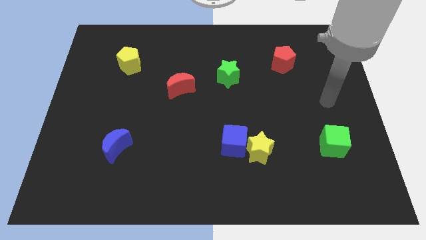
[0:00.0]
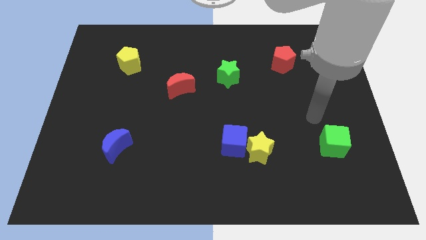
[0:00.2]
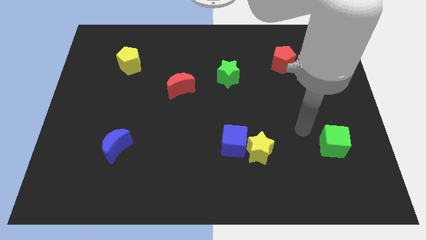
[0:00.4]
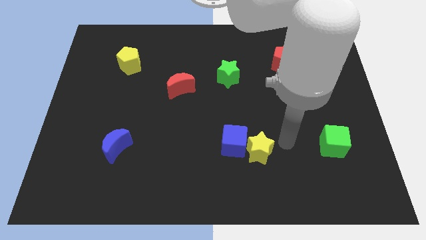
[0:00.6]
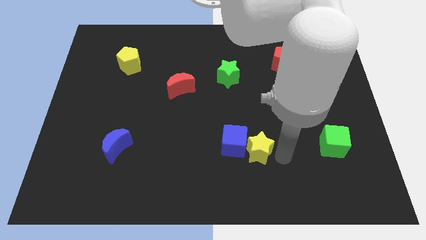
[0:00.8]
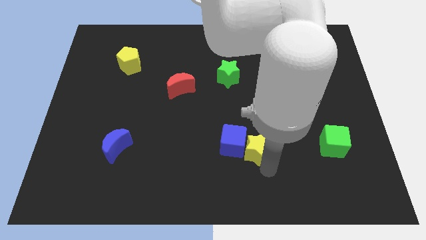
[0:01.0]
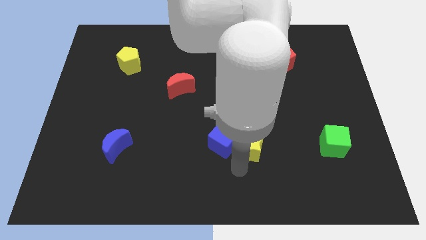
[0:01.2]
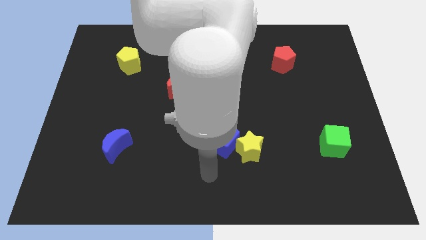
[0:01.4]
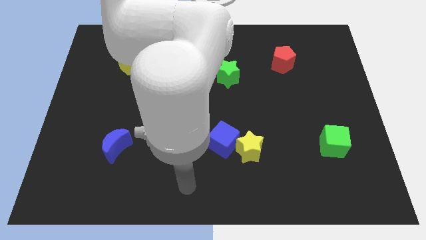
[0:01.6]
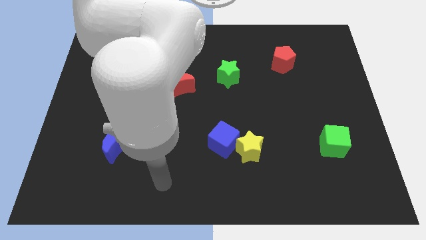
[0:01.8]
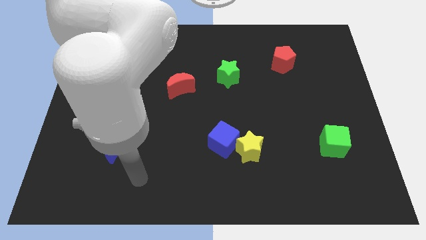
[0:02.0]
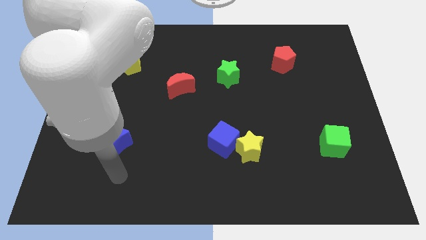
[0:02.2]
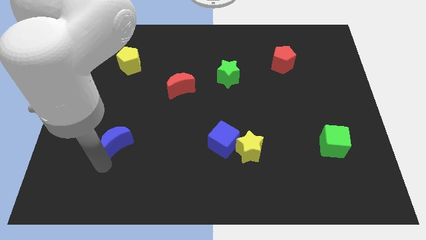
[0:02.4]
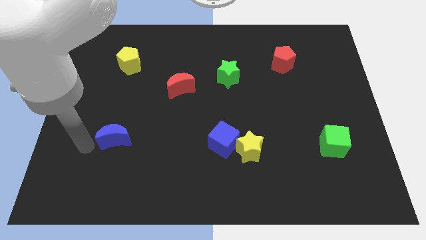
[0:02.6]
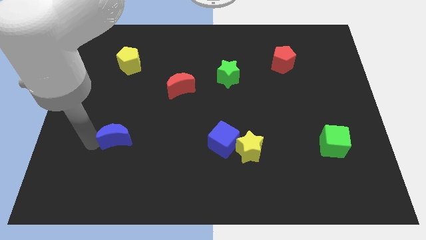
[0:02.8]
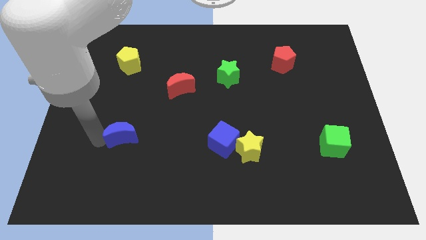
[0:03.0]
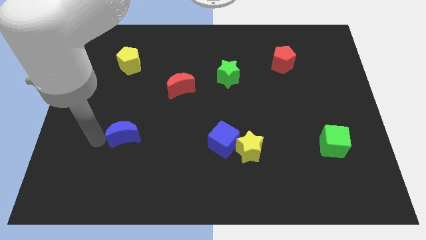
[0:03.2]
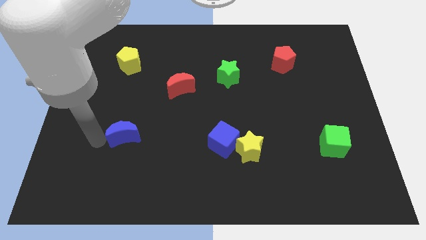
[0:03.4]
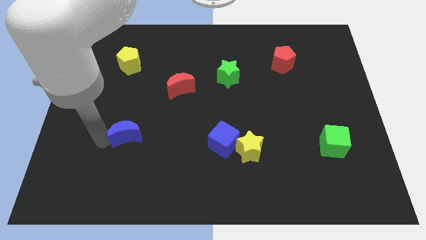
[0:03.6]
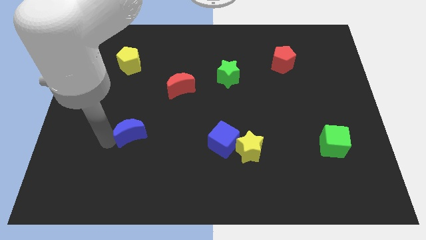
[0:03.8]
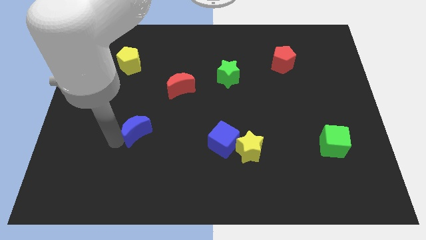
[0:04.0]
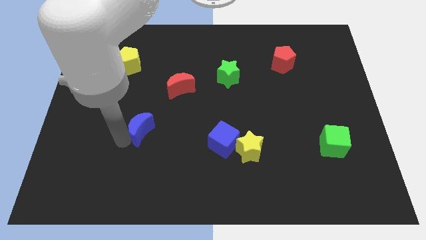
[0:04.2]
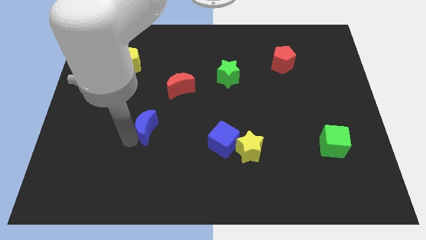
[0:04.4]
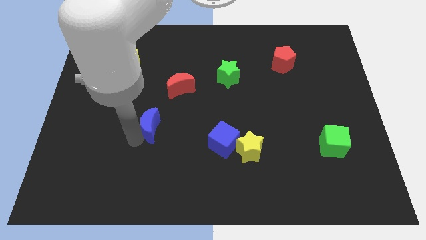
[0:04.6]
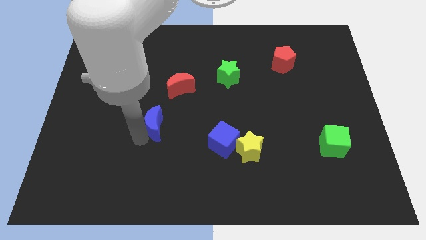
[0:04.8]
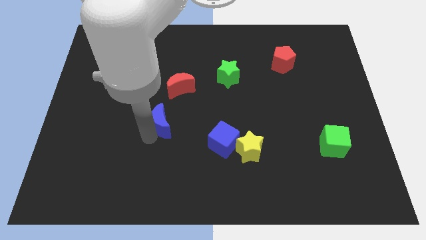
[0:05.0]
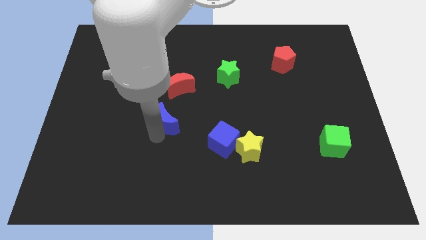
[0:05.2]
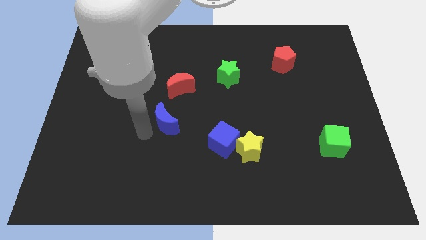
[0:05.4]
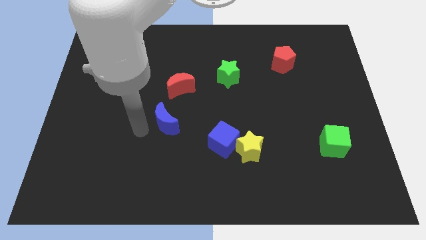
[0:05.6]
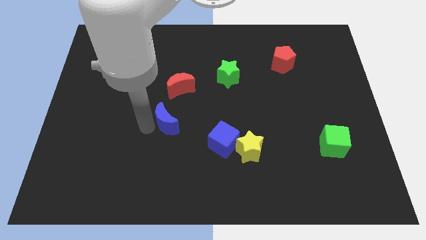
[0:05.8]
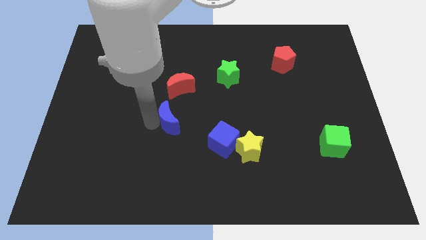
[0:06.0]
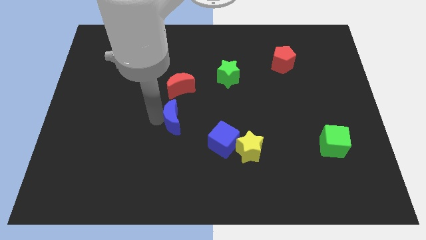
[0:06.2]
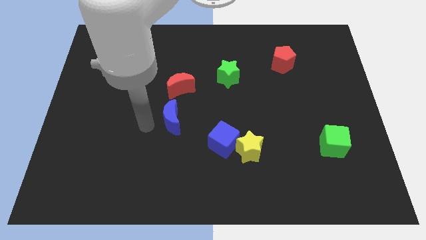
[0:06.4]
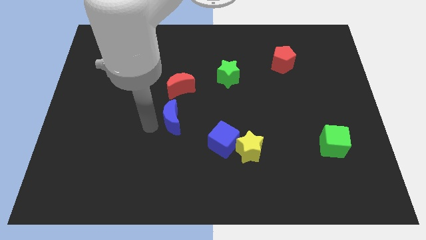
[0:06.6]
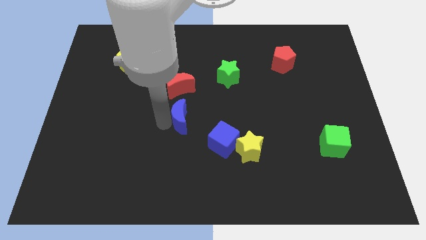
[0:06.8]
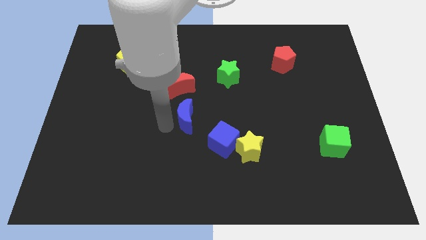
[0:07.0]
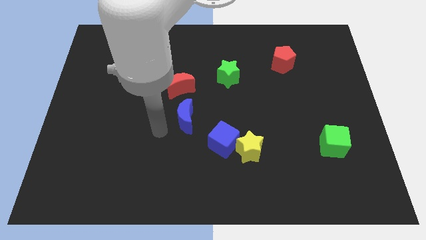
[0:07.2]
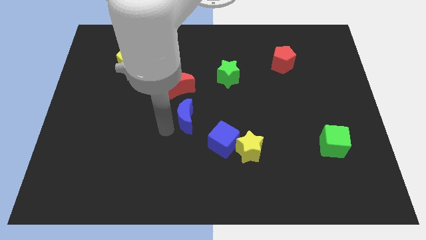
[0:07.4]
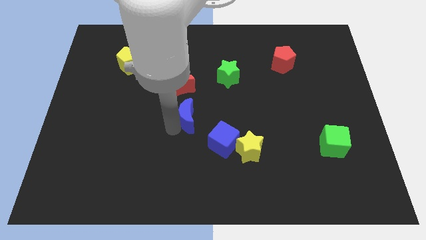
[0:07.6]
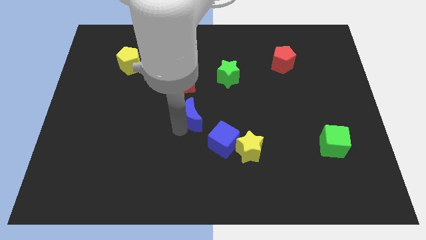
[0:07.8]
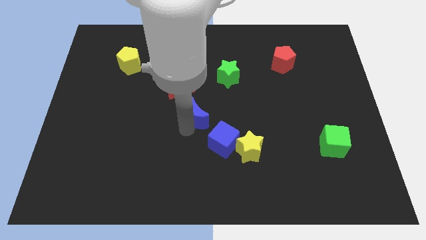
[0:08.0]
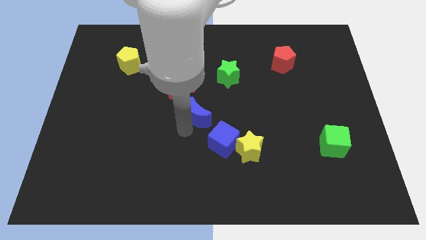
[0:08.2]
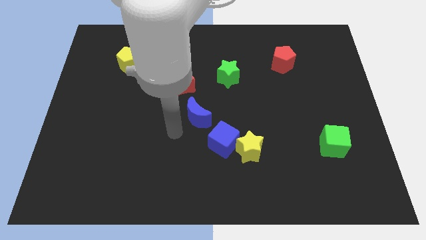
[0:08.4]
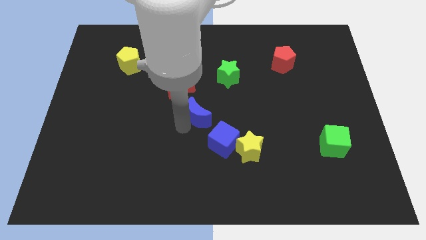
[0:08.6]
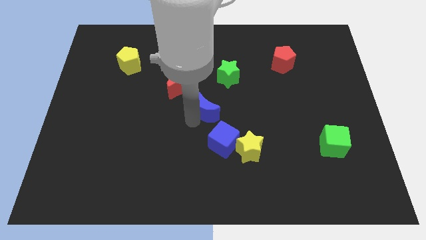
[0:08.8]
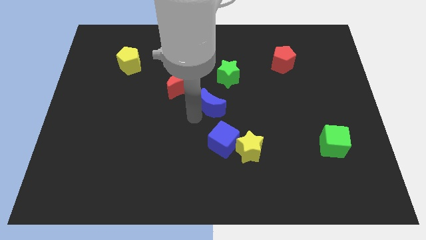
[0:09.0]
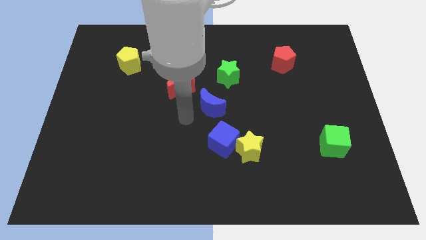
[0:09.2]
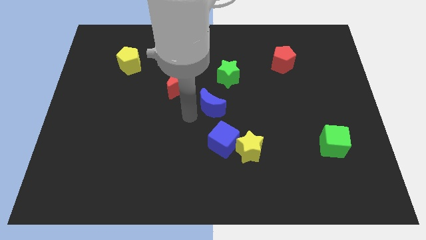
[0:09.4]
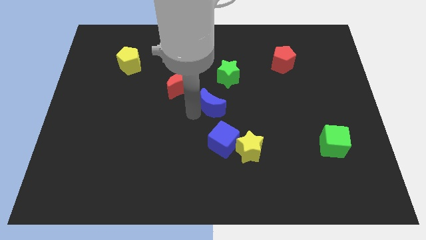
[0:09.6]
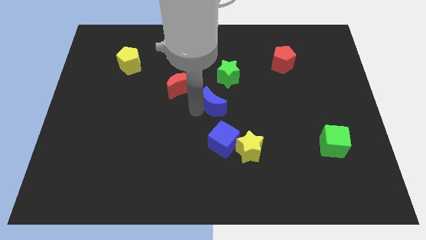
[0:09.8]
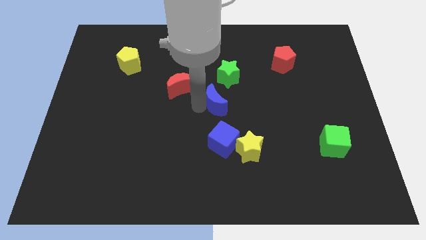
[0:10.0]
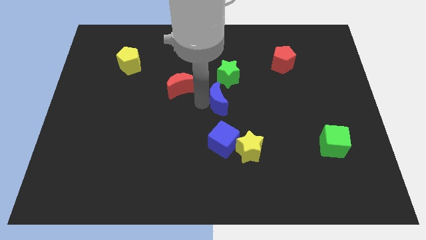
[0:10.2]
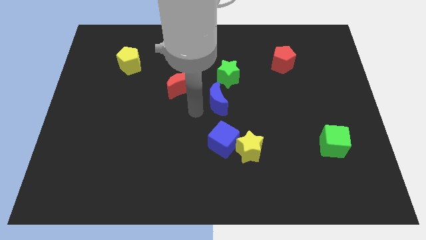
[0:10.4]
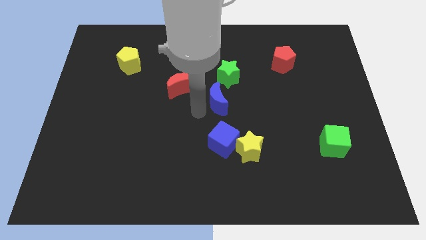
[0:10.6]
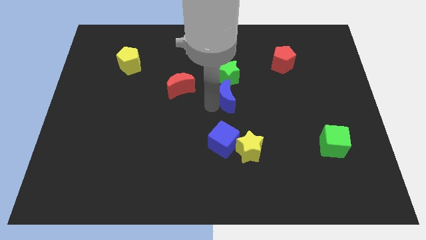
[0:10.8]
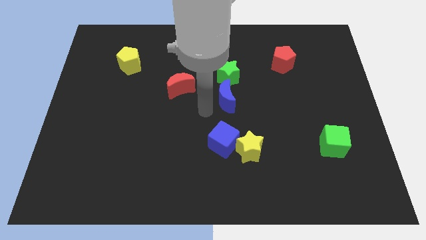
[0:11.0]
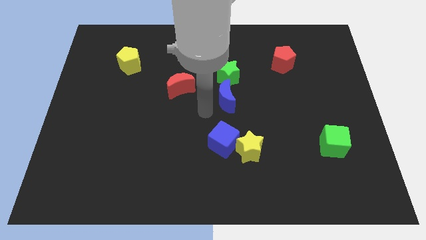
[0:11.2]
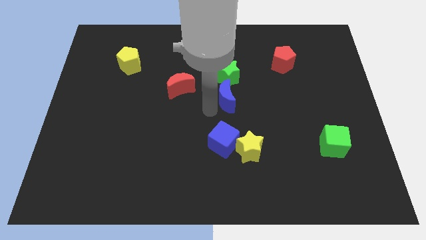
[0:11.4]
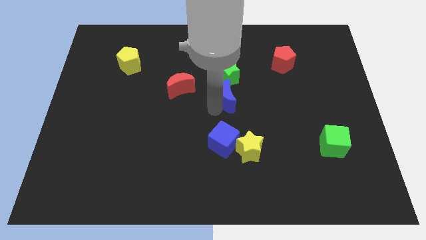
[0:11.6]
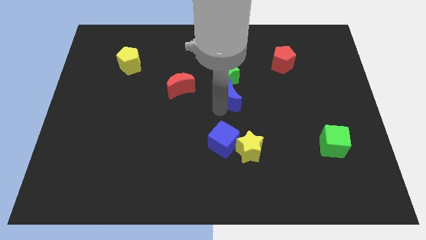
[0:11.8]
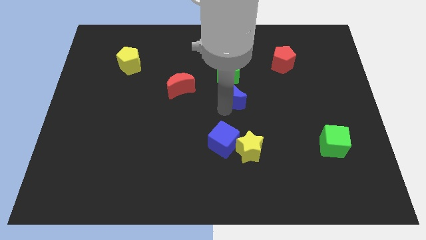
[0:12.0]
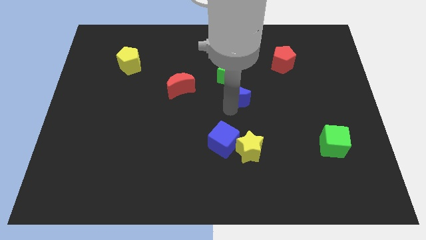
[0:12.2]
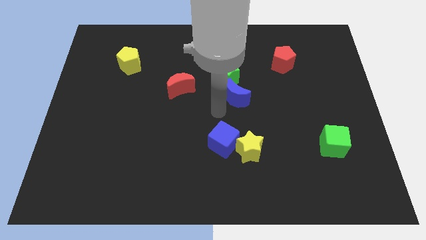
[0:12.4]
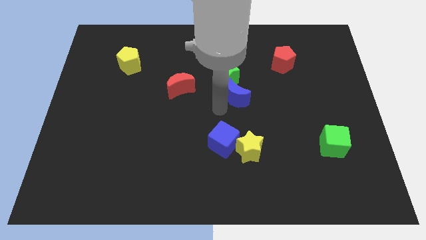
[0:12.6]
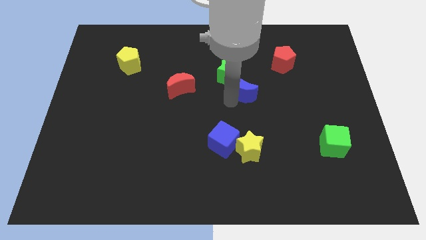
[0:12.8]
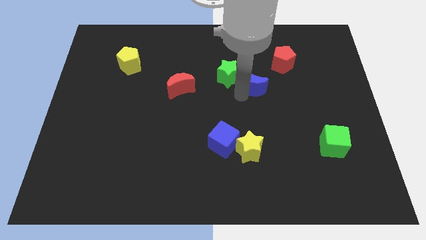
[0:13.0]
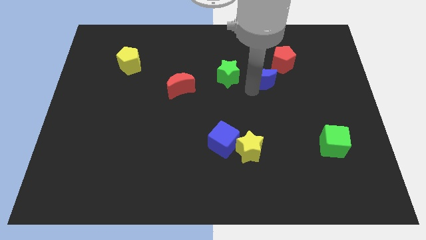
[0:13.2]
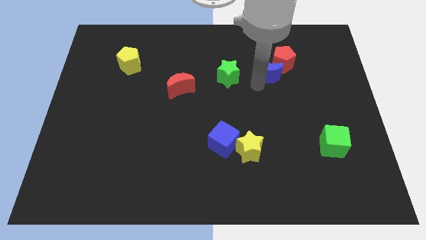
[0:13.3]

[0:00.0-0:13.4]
push the blue moon towards the red pentagon

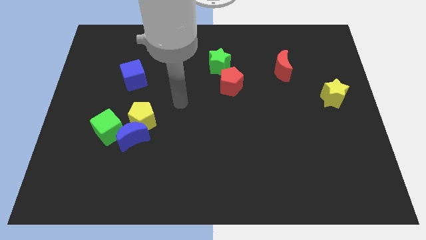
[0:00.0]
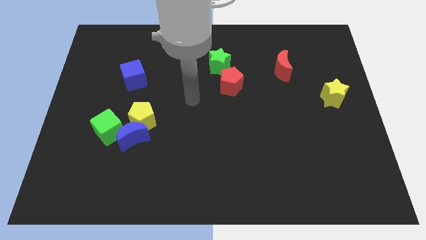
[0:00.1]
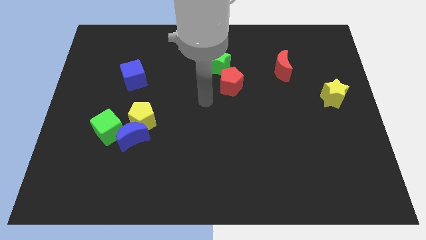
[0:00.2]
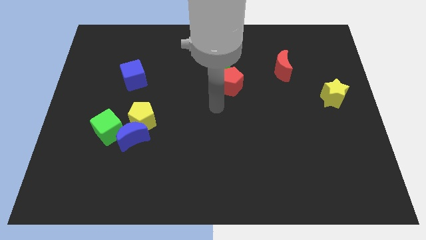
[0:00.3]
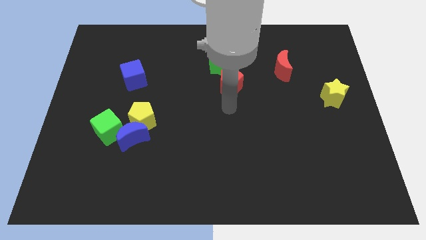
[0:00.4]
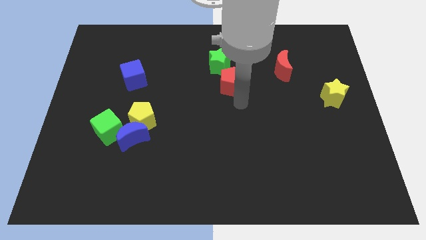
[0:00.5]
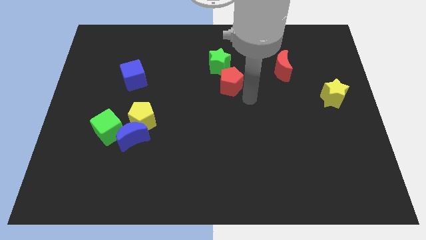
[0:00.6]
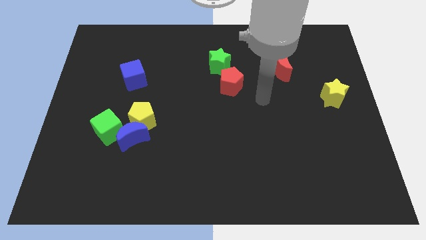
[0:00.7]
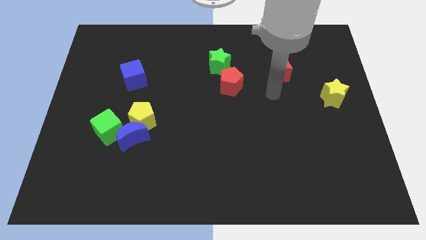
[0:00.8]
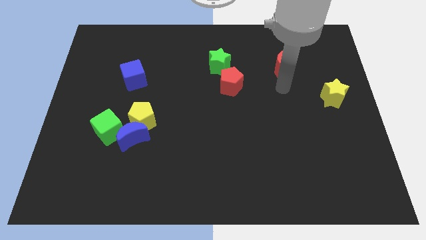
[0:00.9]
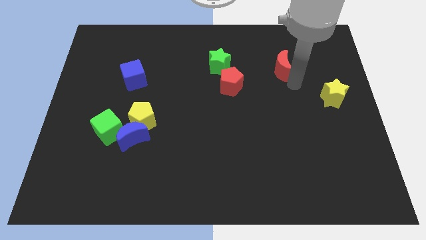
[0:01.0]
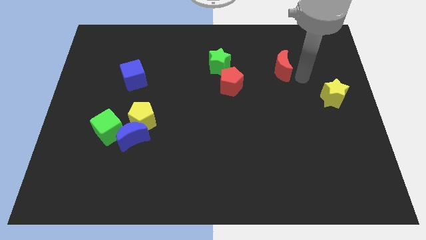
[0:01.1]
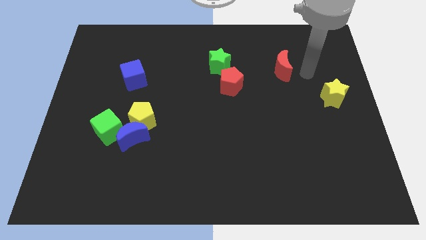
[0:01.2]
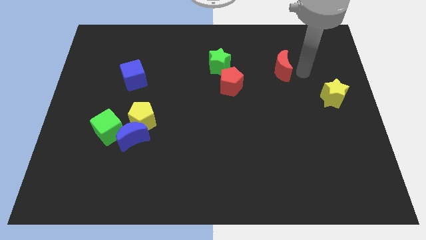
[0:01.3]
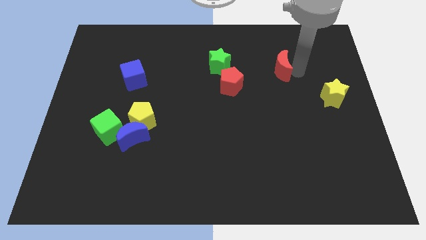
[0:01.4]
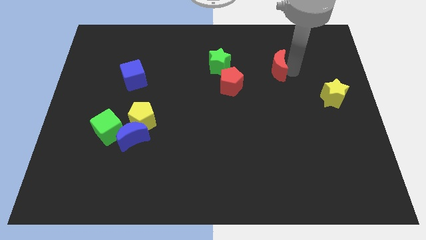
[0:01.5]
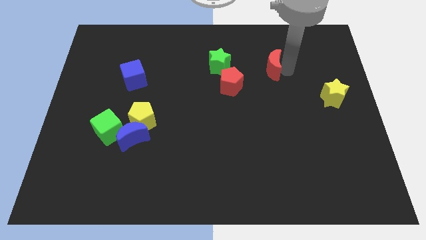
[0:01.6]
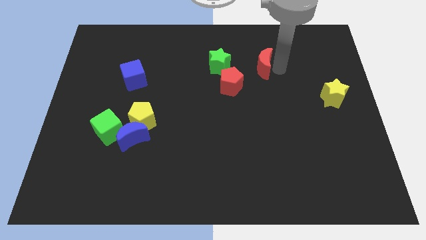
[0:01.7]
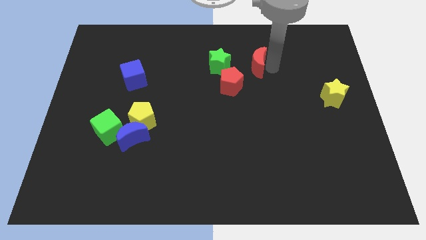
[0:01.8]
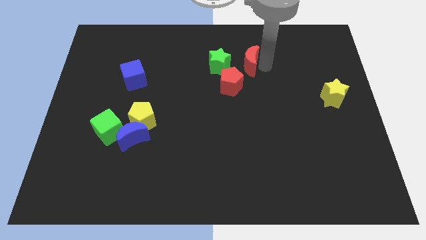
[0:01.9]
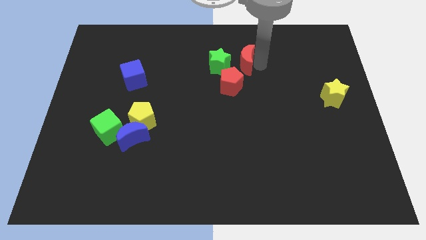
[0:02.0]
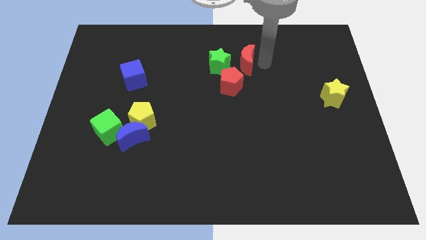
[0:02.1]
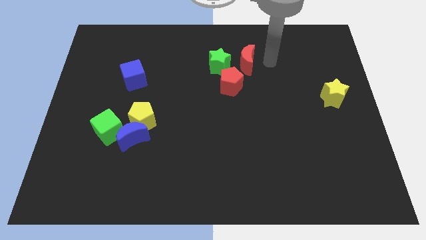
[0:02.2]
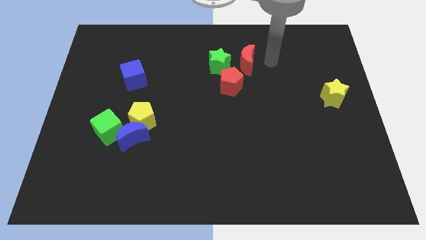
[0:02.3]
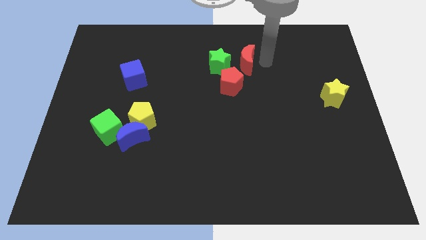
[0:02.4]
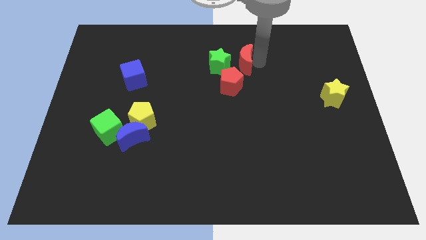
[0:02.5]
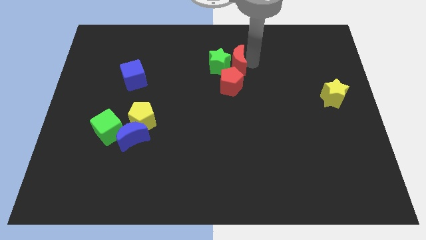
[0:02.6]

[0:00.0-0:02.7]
put the red moon next to the green star
